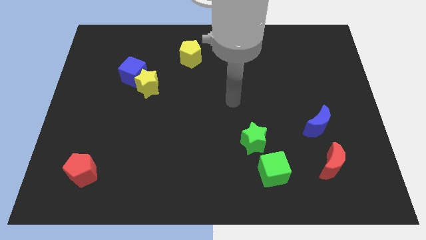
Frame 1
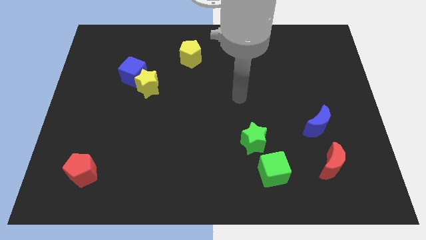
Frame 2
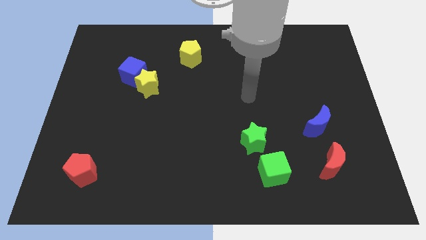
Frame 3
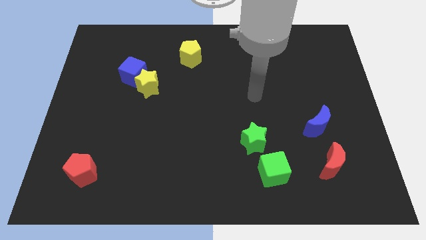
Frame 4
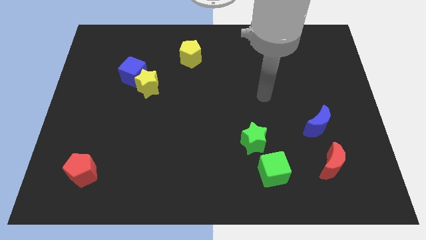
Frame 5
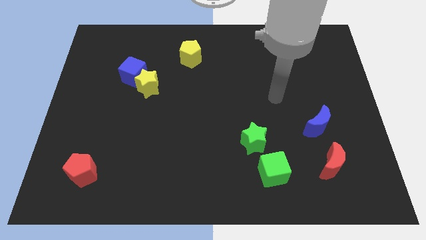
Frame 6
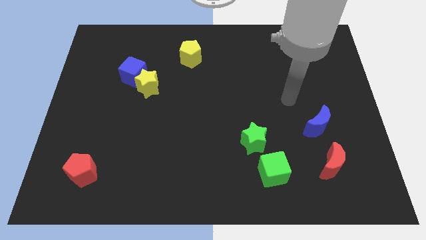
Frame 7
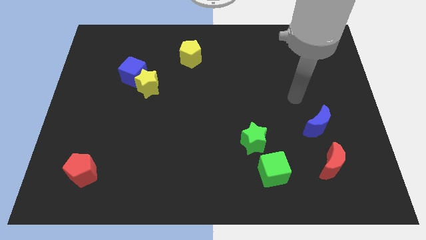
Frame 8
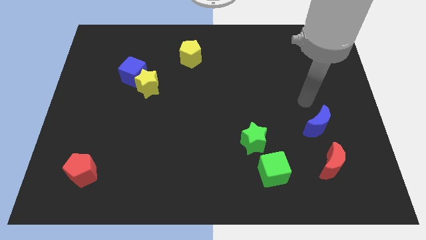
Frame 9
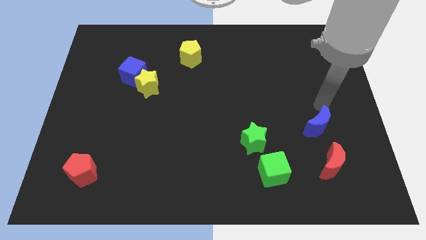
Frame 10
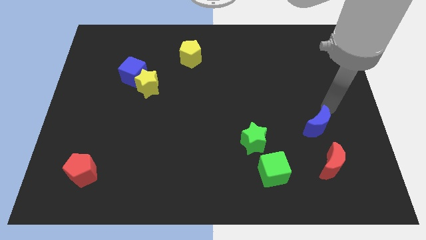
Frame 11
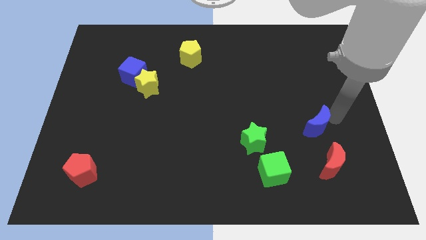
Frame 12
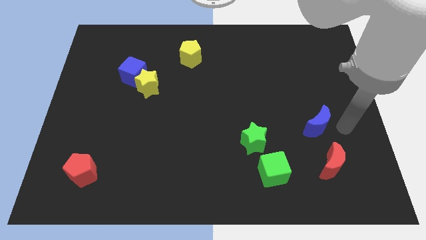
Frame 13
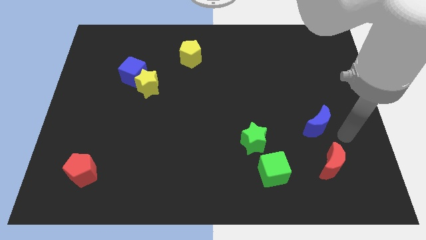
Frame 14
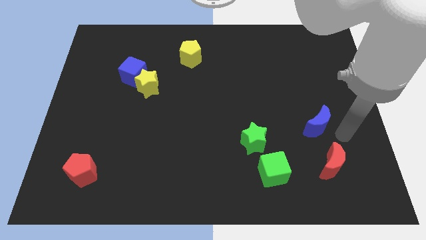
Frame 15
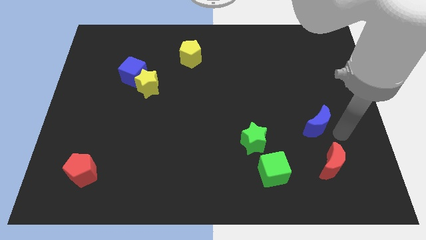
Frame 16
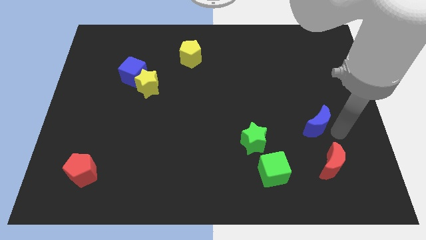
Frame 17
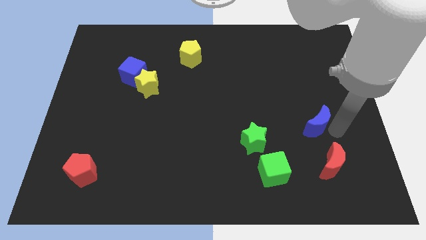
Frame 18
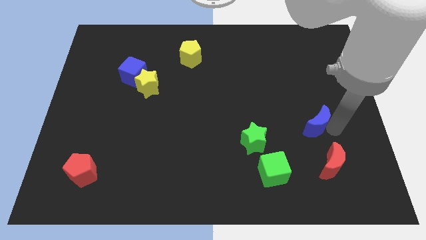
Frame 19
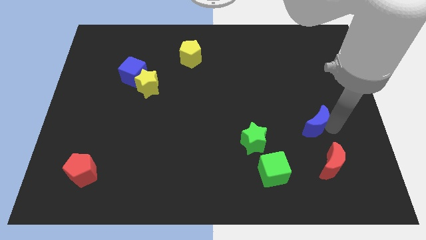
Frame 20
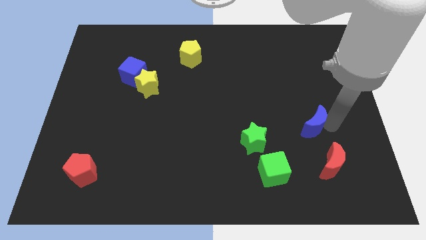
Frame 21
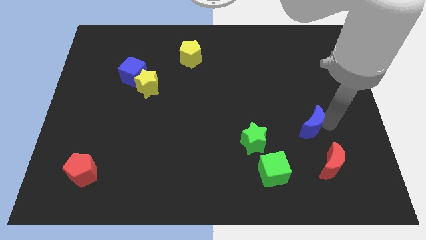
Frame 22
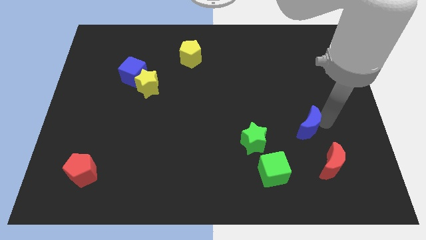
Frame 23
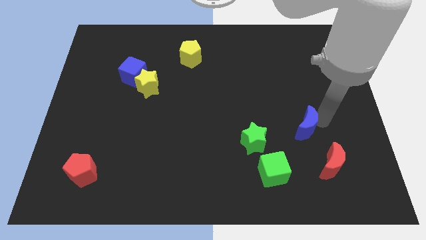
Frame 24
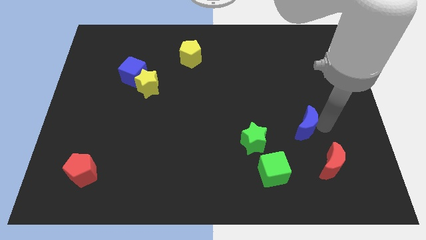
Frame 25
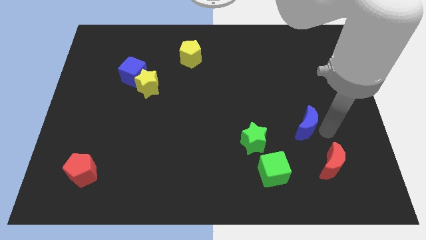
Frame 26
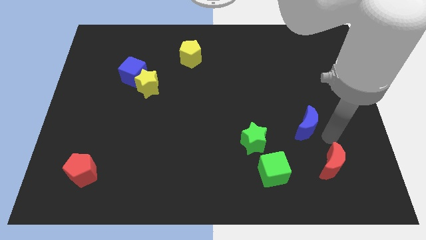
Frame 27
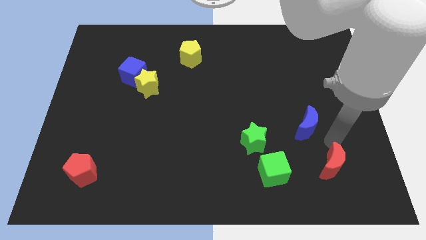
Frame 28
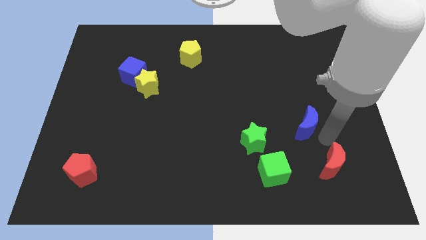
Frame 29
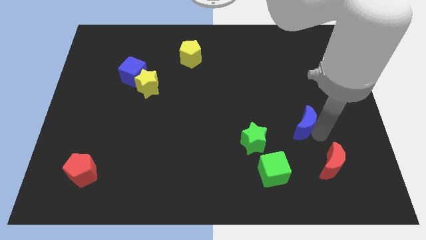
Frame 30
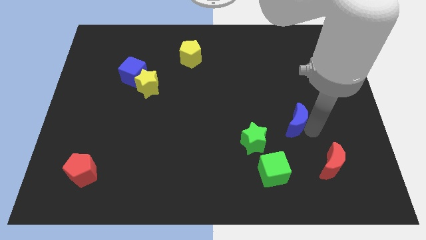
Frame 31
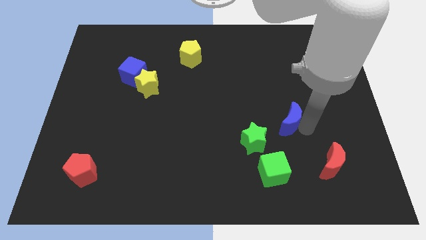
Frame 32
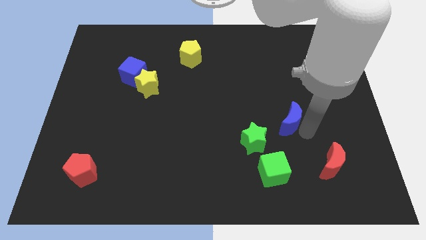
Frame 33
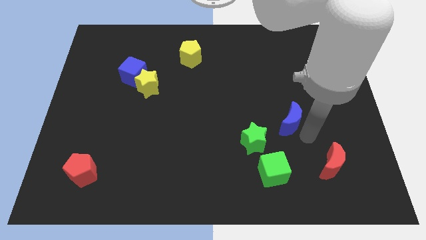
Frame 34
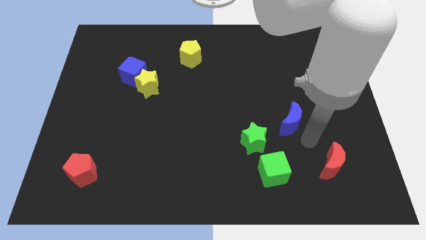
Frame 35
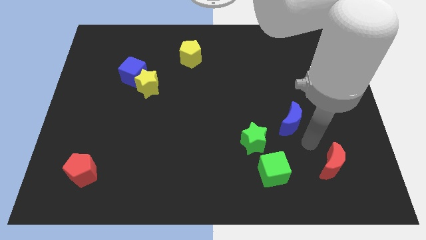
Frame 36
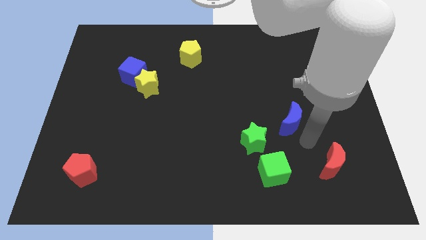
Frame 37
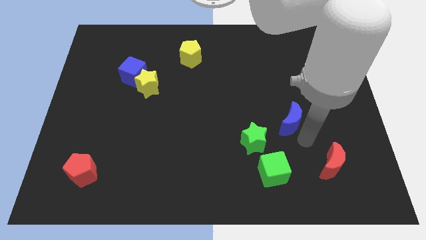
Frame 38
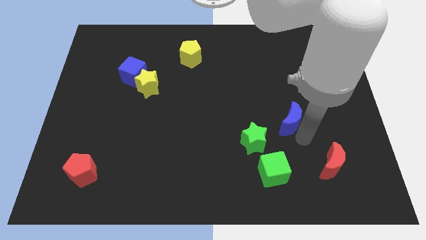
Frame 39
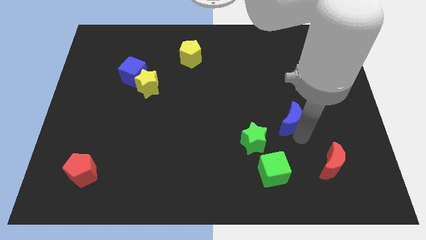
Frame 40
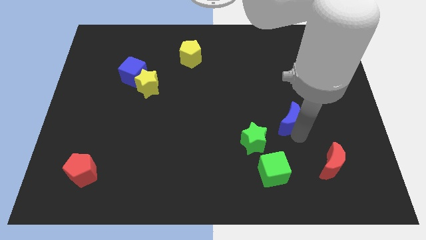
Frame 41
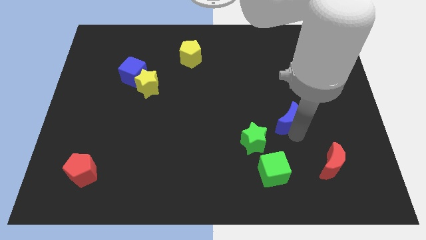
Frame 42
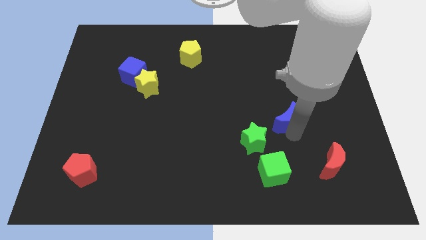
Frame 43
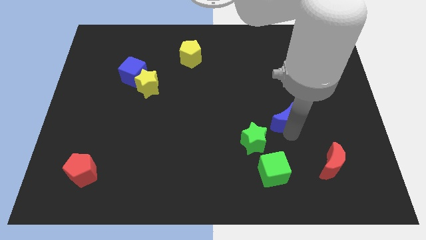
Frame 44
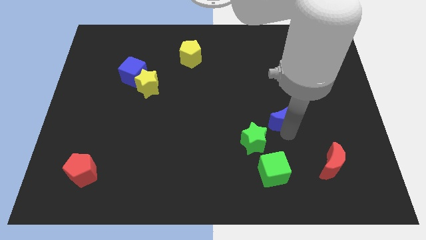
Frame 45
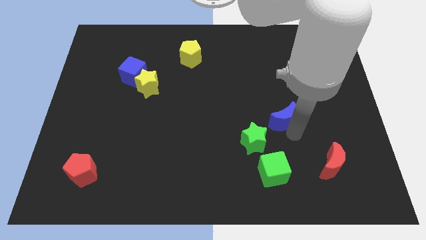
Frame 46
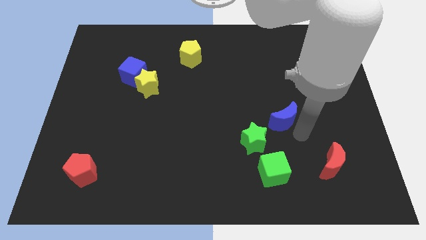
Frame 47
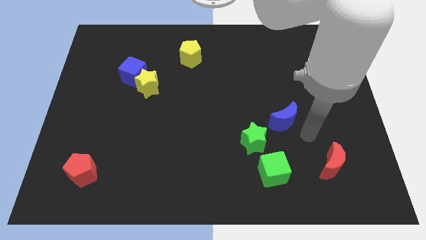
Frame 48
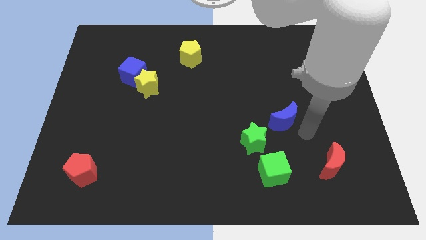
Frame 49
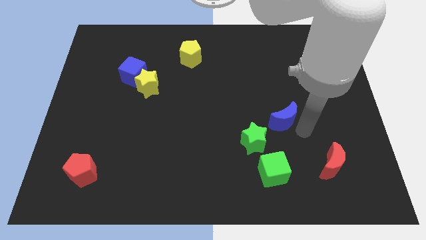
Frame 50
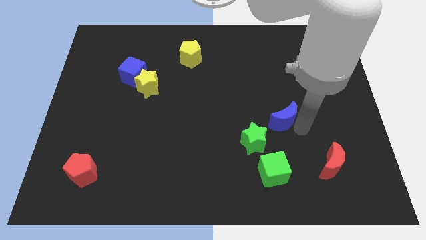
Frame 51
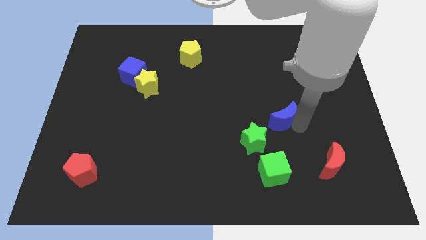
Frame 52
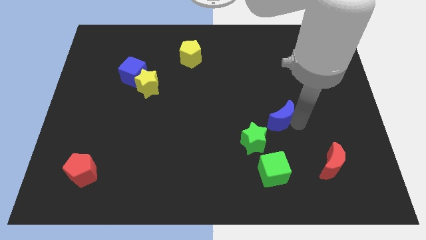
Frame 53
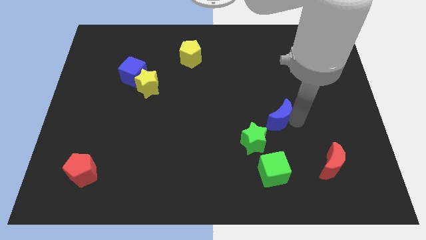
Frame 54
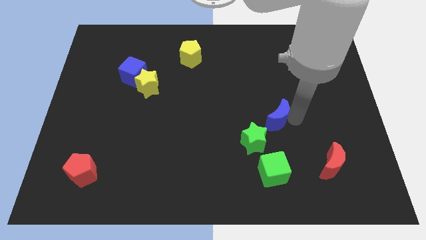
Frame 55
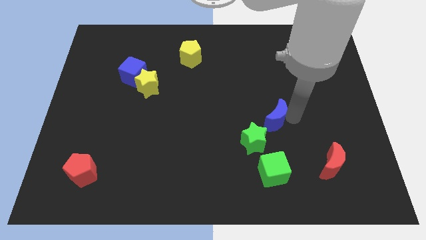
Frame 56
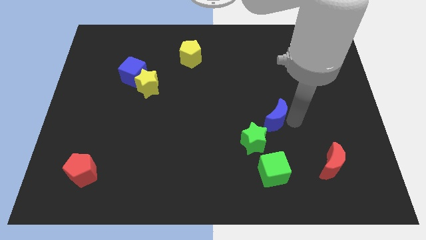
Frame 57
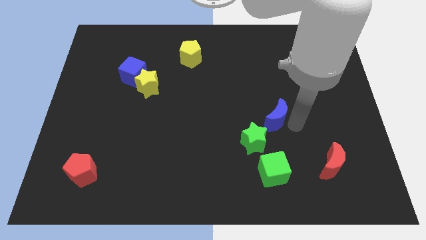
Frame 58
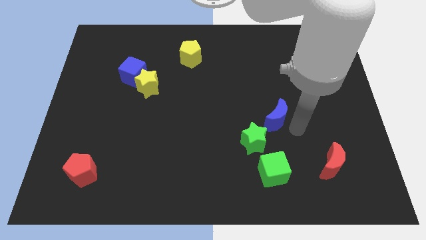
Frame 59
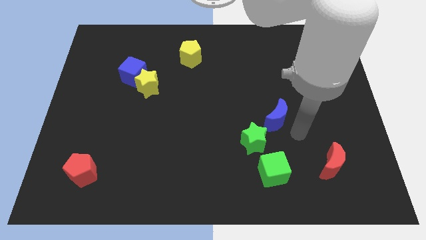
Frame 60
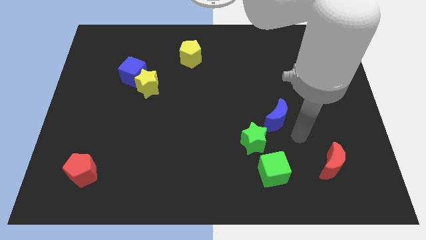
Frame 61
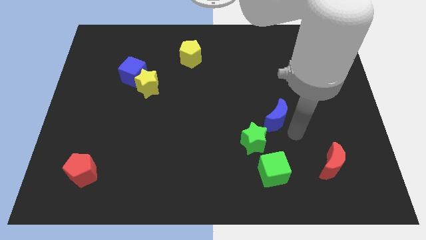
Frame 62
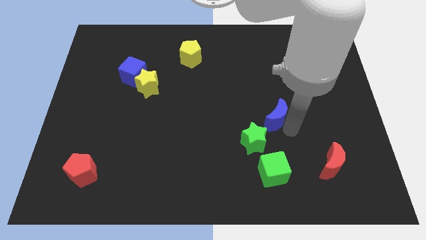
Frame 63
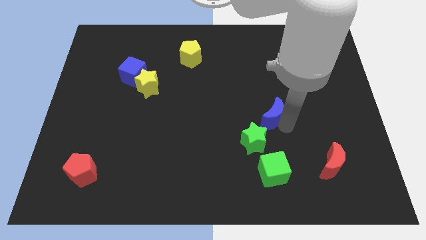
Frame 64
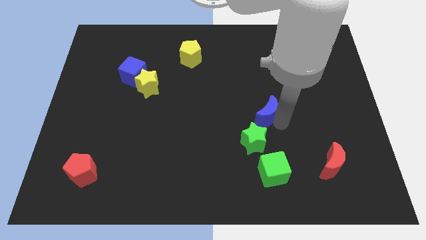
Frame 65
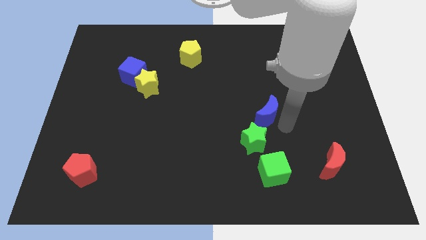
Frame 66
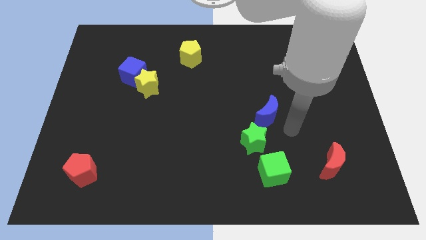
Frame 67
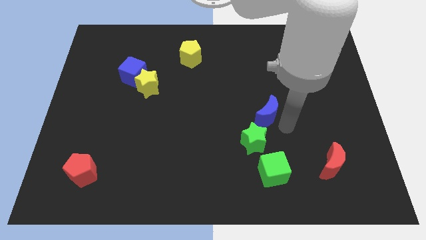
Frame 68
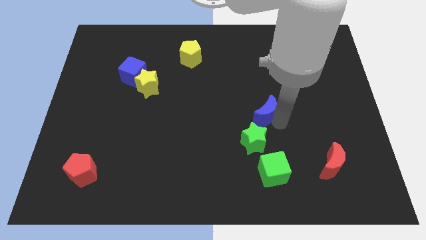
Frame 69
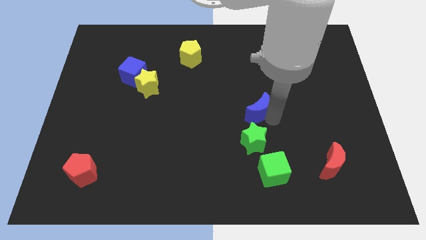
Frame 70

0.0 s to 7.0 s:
push the blue moon to the center of the board

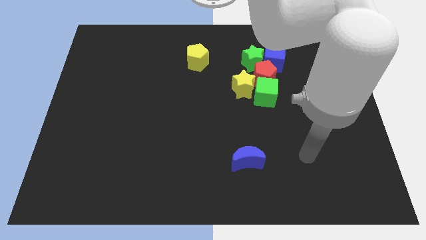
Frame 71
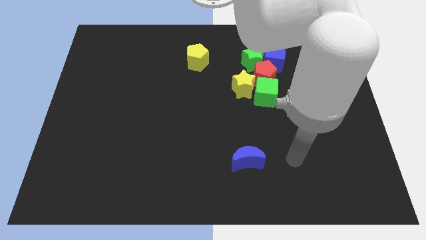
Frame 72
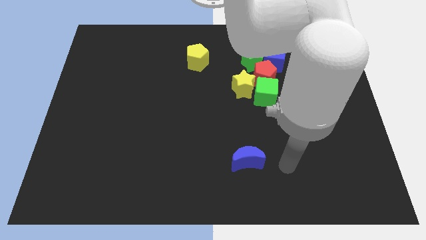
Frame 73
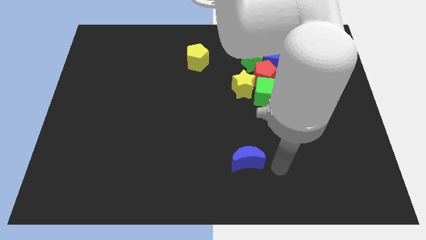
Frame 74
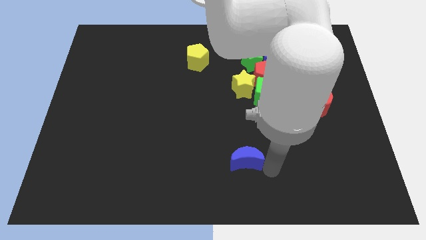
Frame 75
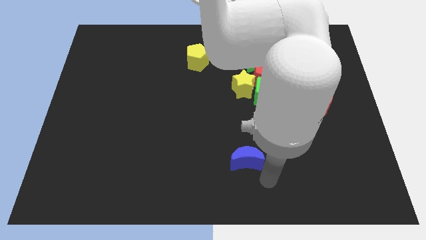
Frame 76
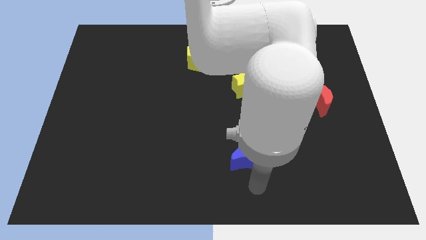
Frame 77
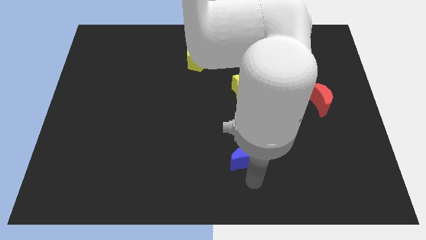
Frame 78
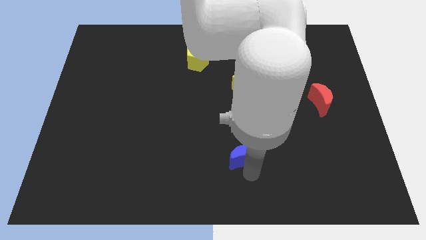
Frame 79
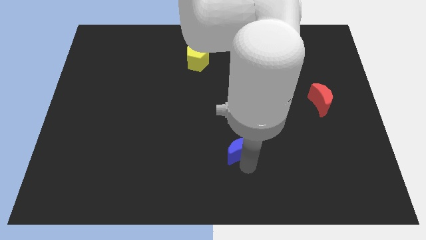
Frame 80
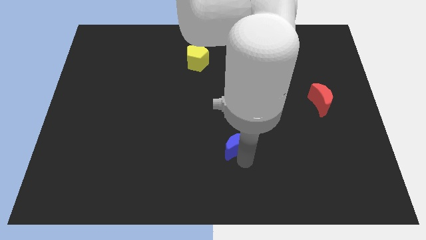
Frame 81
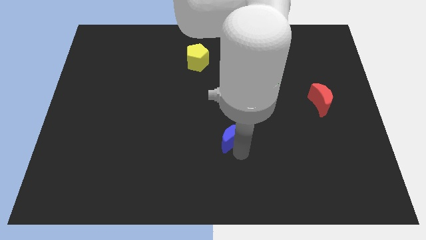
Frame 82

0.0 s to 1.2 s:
move the blue moon to the center of the board
